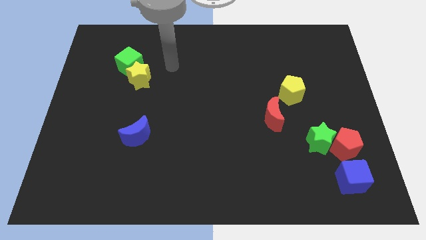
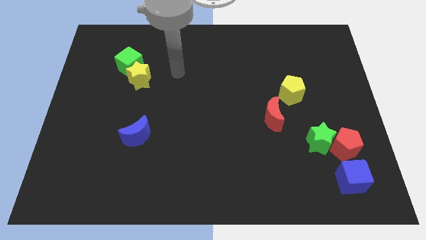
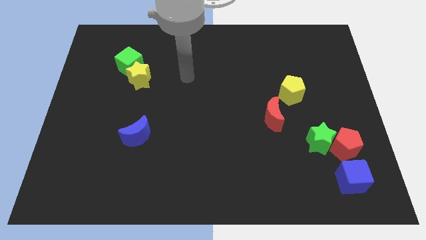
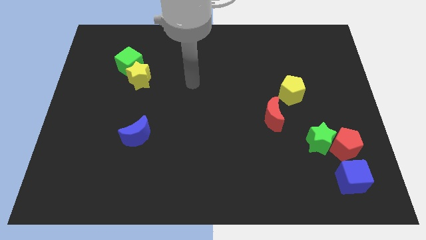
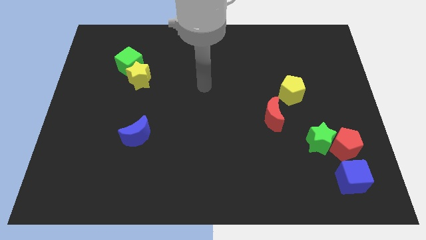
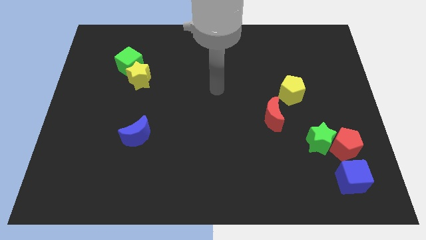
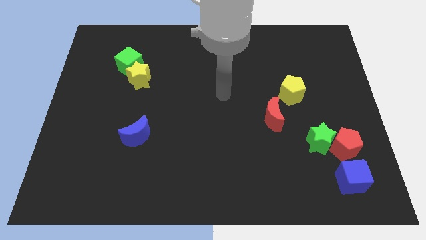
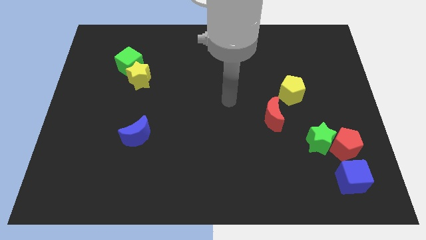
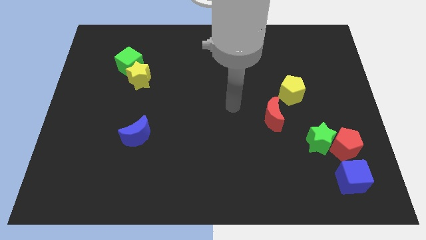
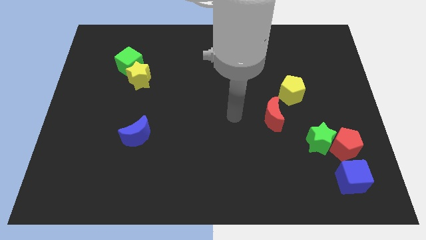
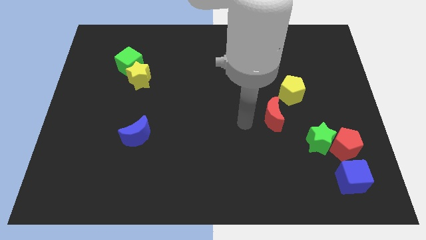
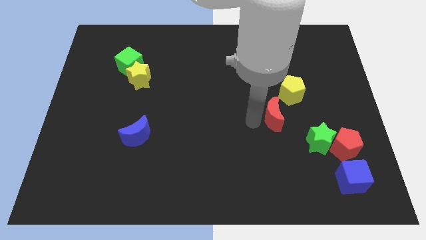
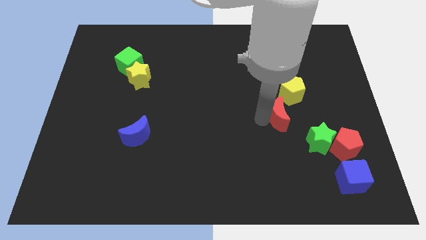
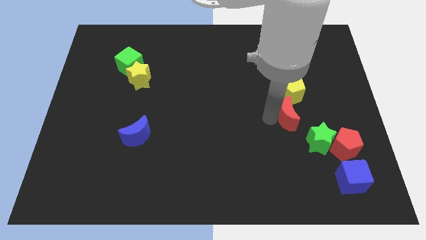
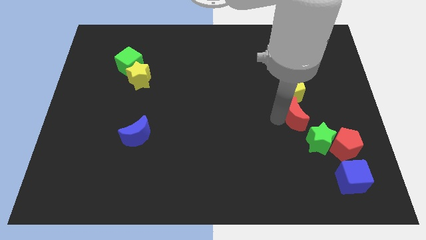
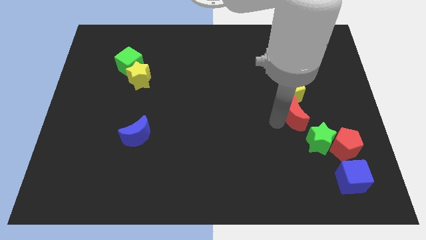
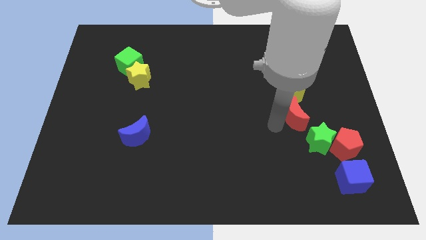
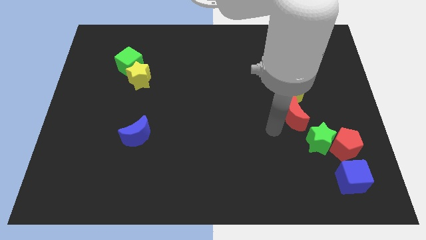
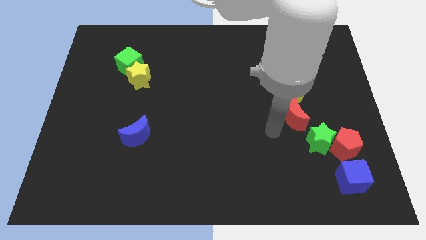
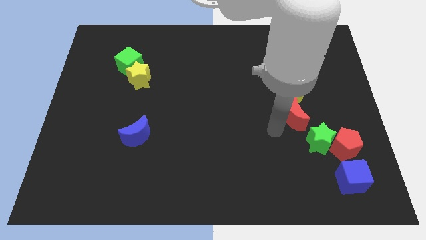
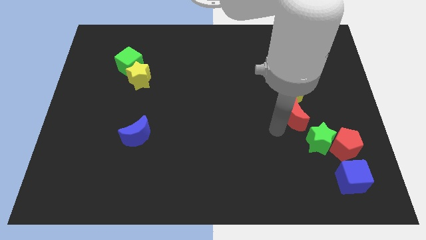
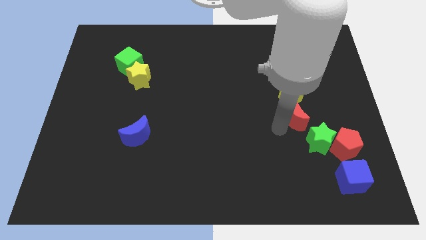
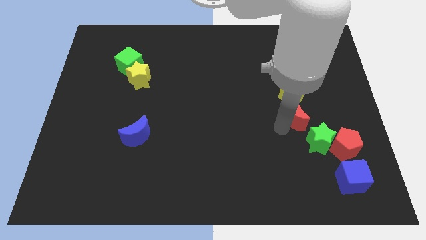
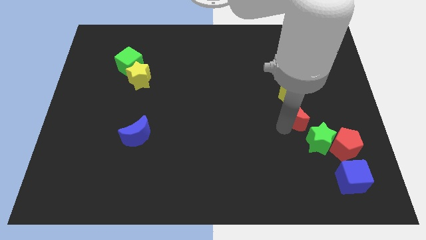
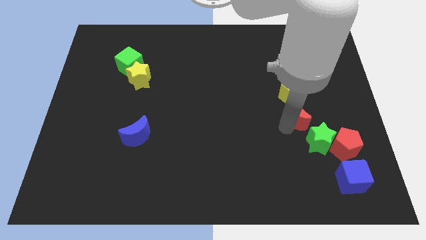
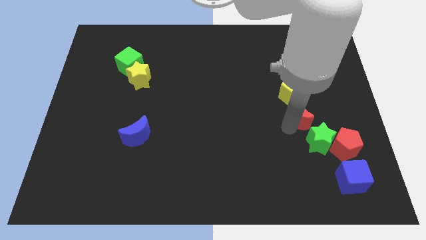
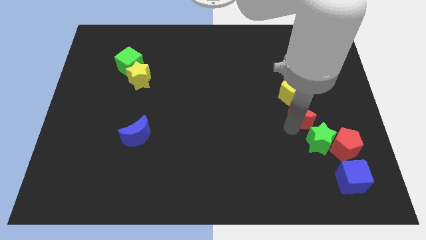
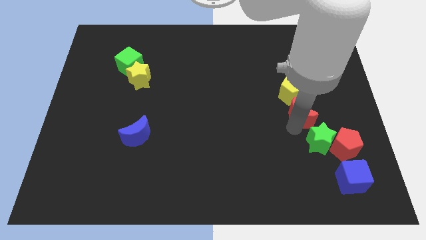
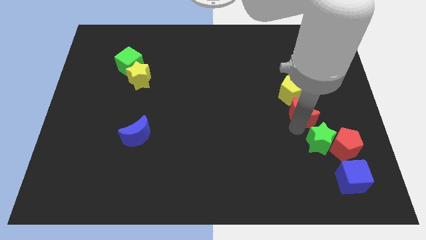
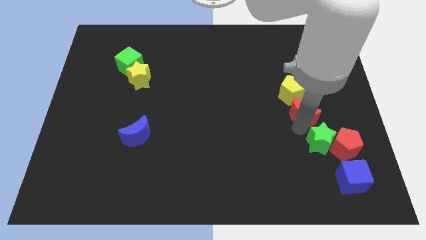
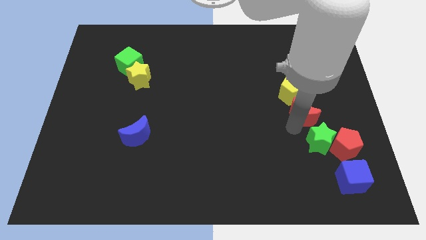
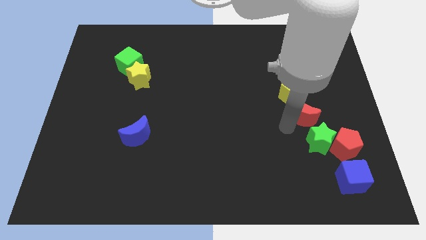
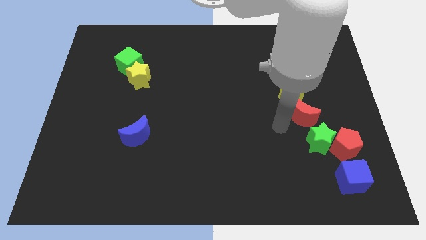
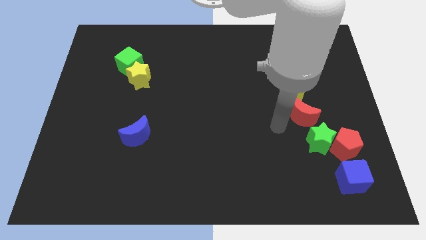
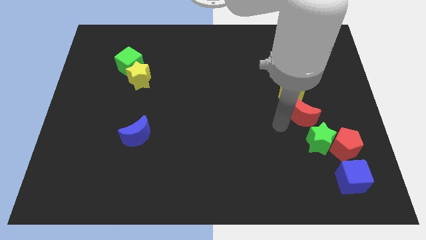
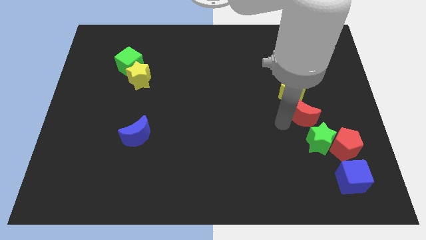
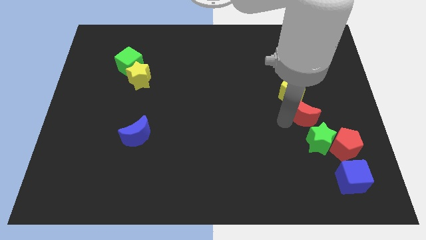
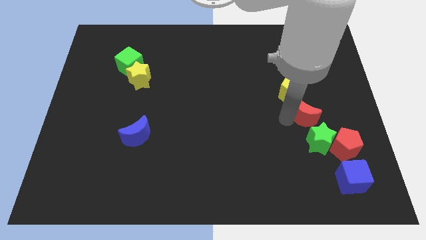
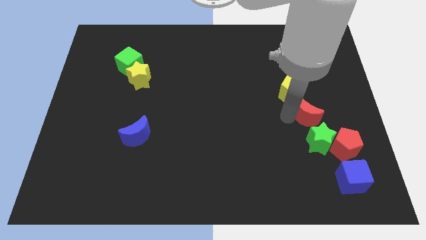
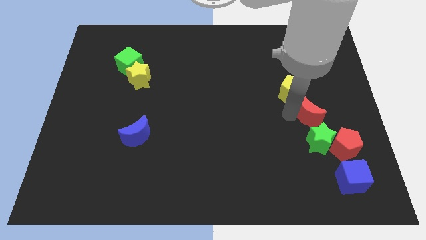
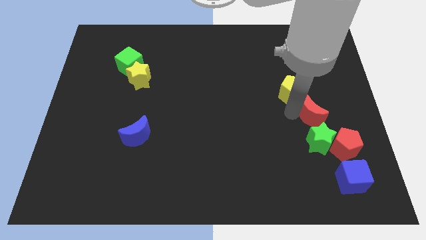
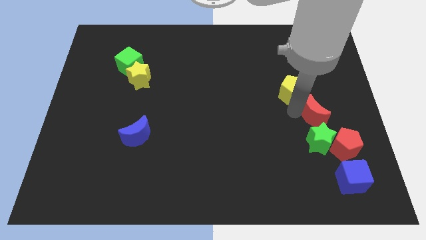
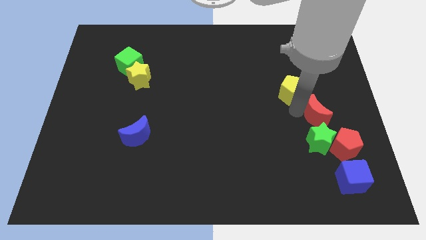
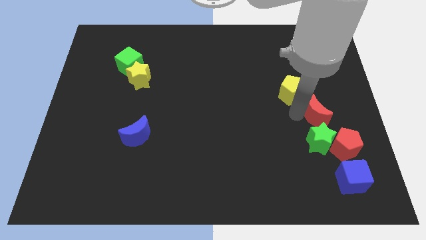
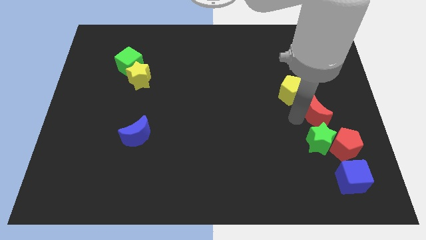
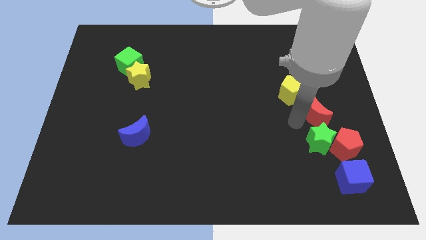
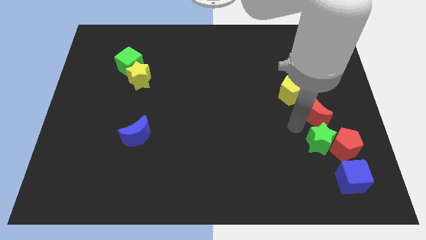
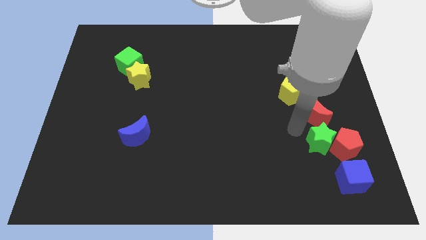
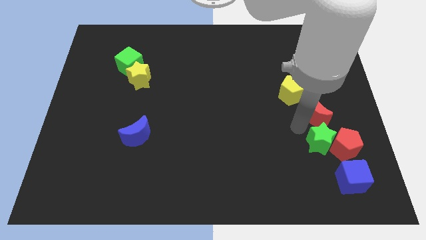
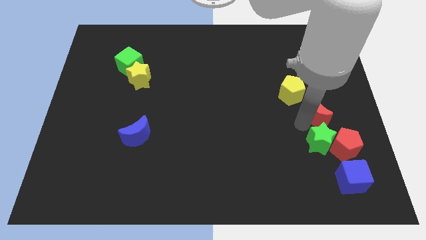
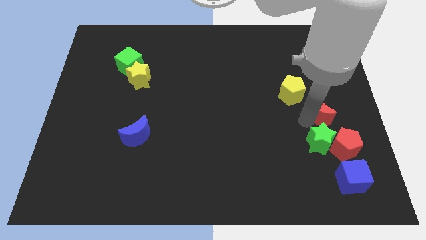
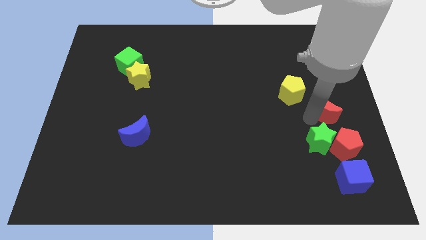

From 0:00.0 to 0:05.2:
slide the red moon to the right side

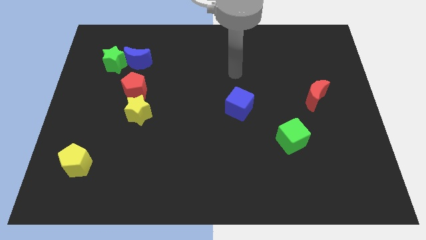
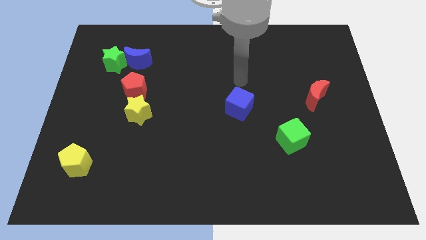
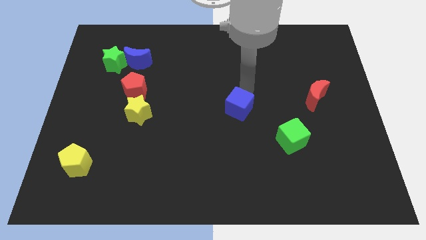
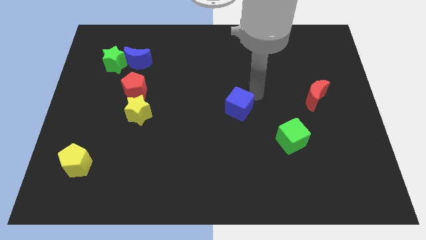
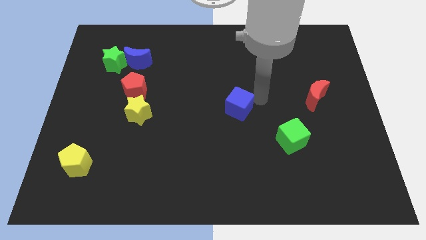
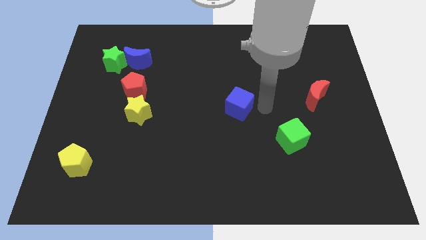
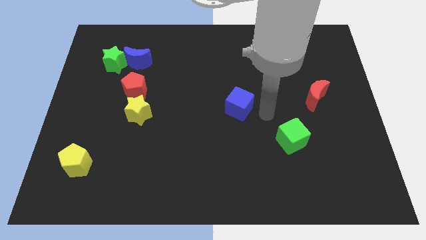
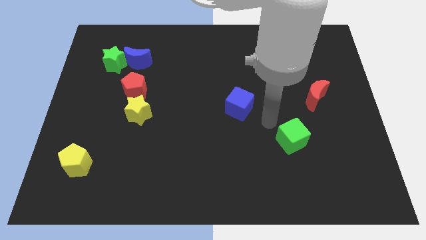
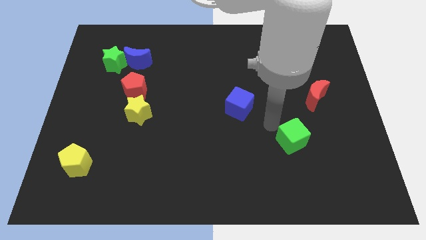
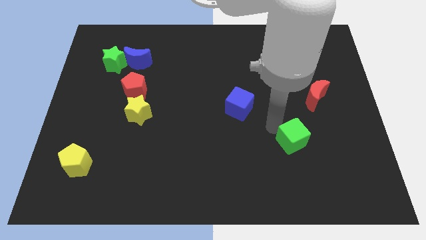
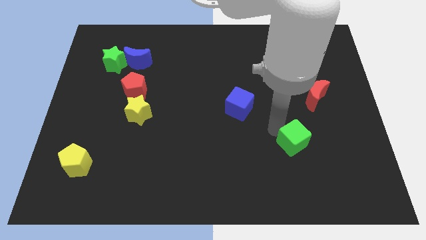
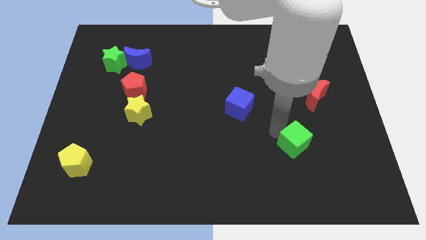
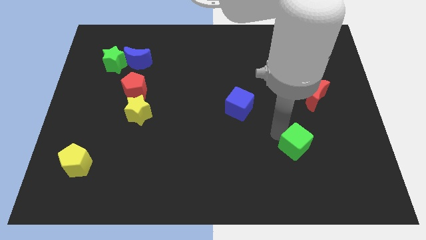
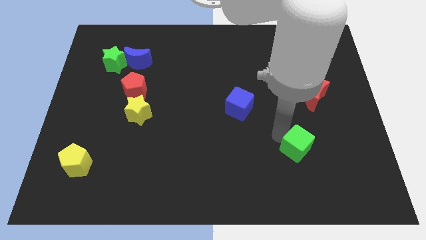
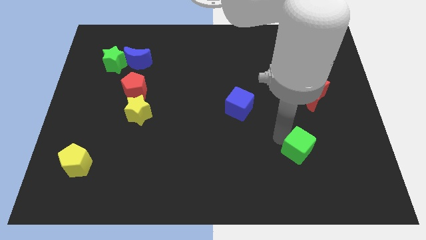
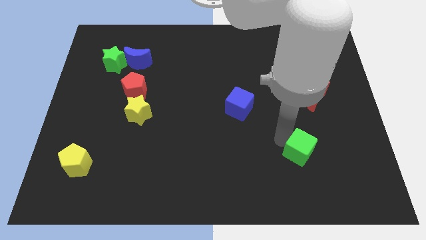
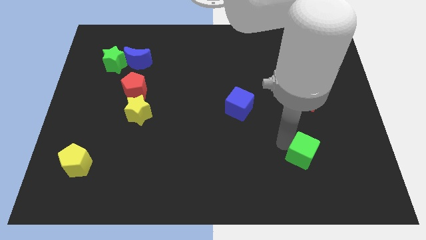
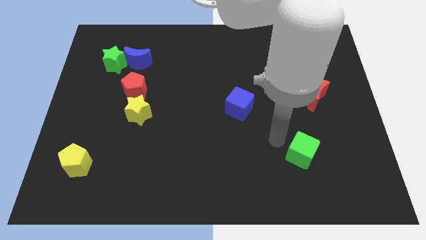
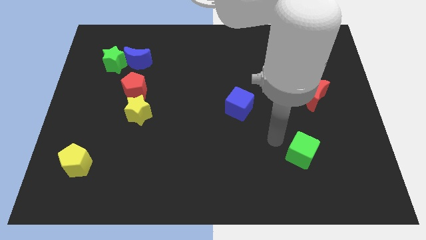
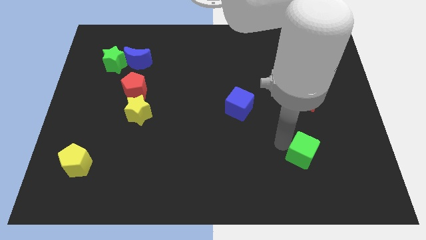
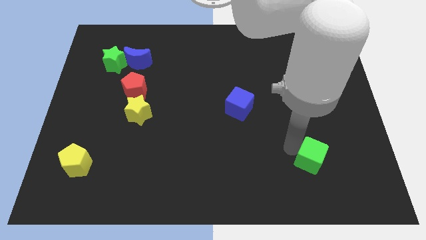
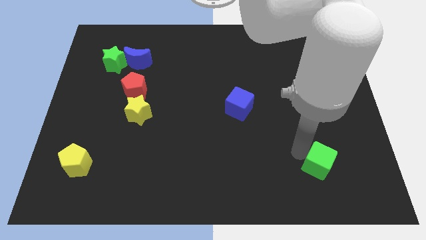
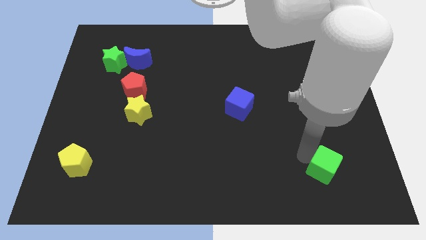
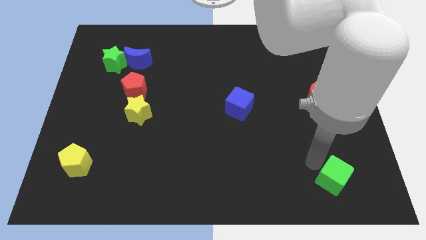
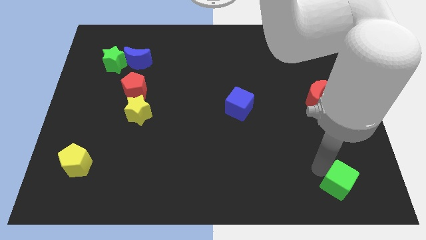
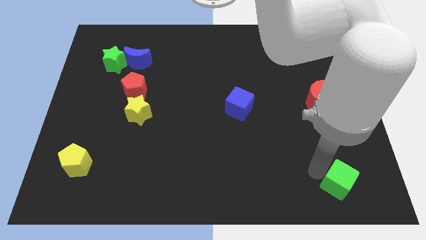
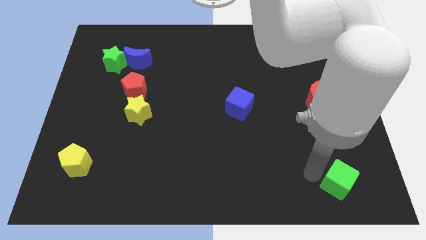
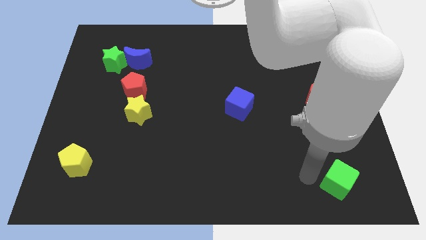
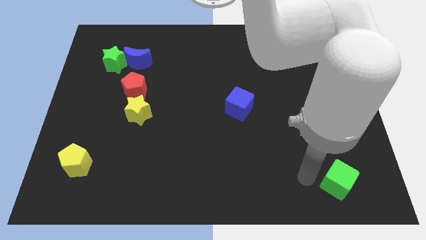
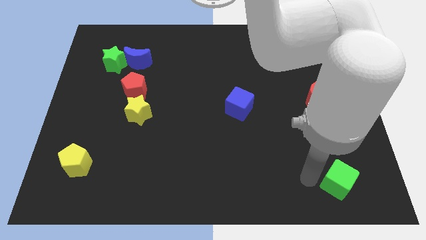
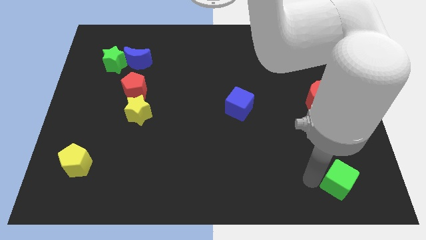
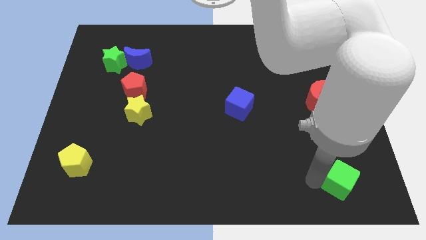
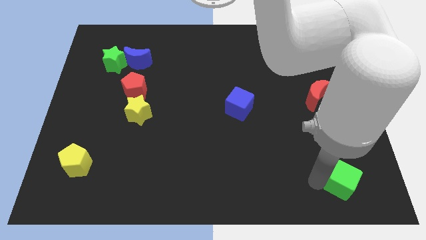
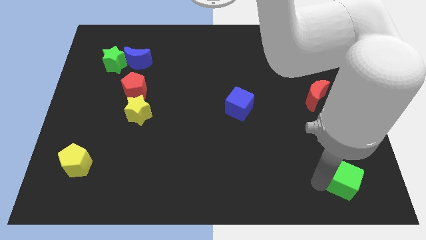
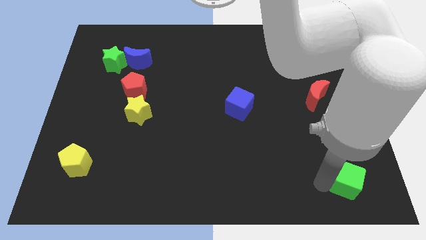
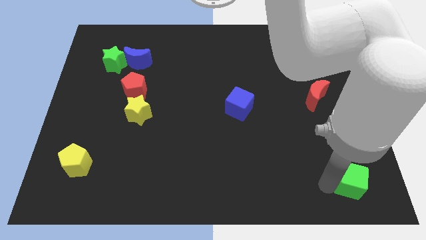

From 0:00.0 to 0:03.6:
put the green cube to the bottom right corner
